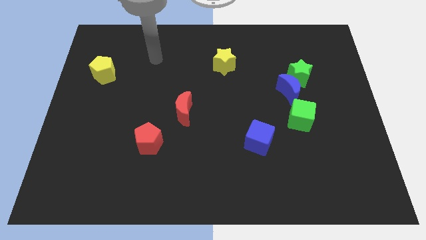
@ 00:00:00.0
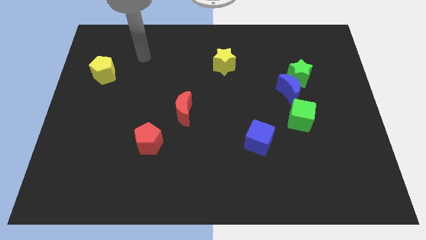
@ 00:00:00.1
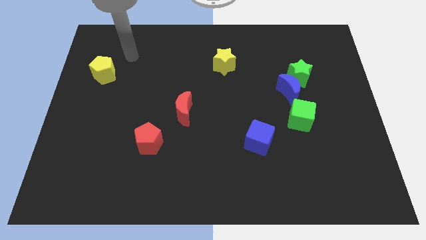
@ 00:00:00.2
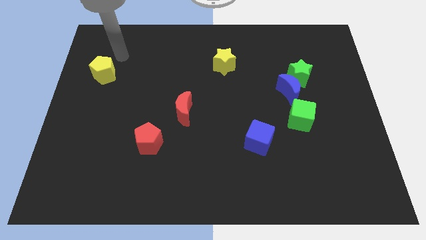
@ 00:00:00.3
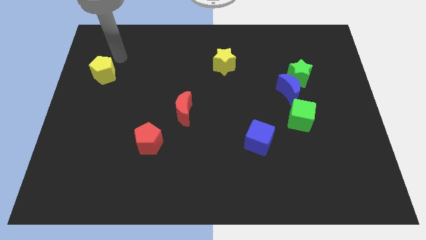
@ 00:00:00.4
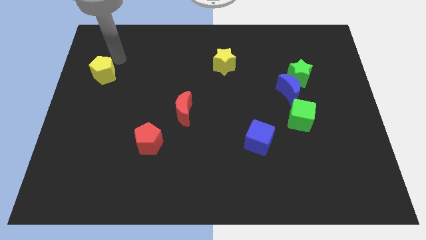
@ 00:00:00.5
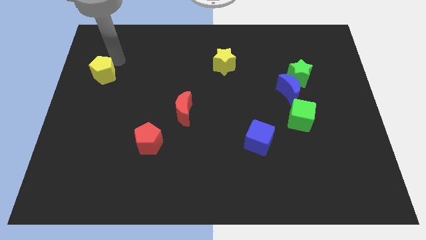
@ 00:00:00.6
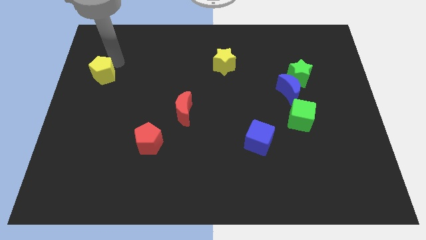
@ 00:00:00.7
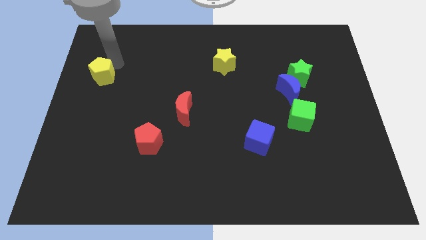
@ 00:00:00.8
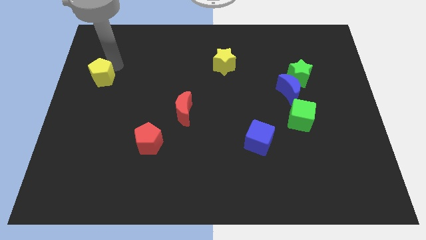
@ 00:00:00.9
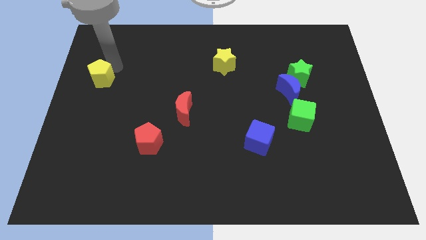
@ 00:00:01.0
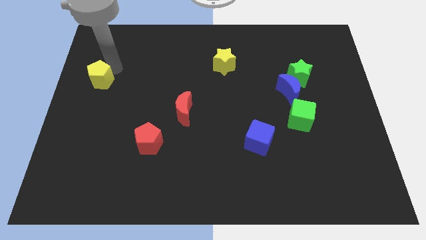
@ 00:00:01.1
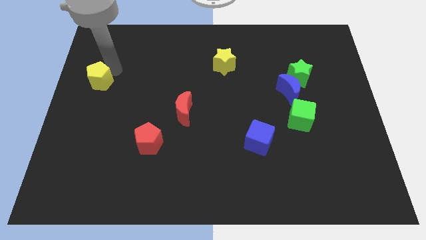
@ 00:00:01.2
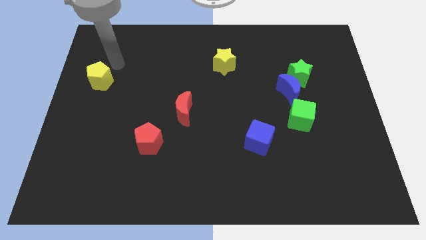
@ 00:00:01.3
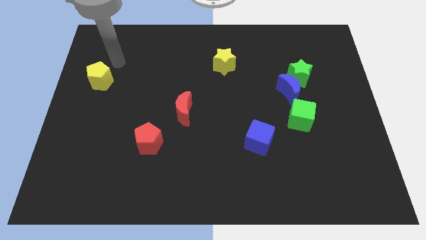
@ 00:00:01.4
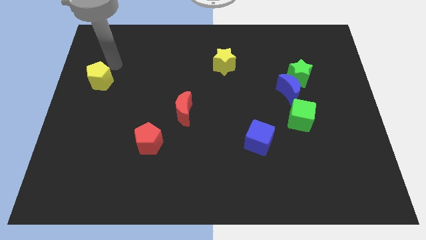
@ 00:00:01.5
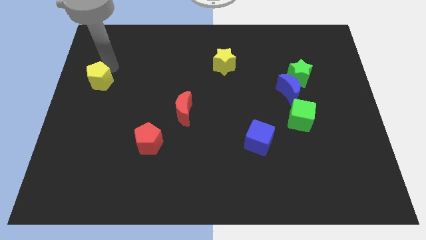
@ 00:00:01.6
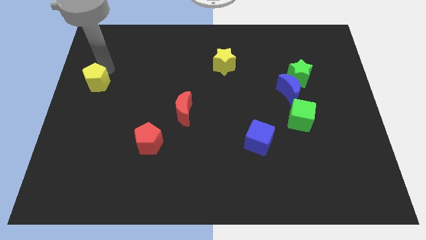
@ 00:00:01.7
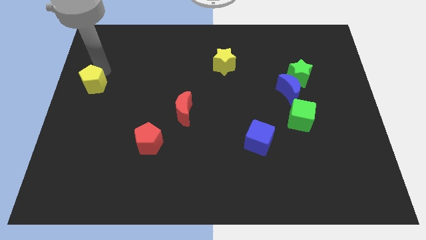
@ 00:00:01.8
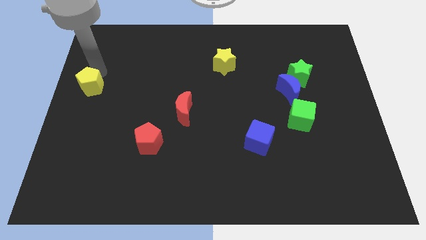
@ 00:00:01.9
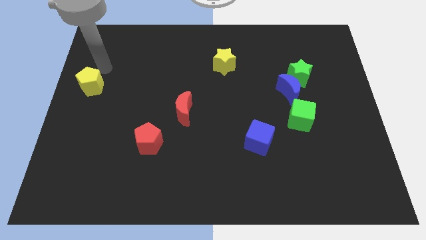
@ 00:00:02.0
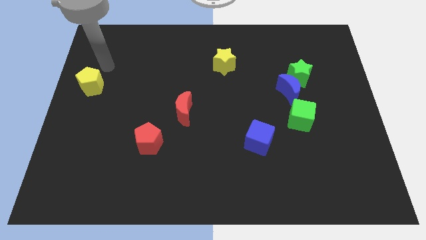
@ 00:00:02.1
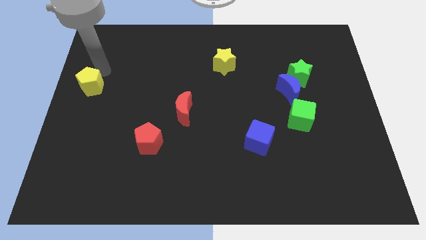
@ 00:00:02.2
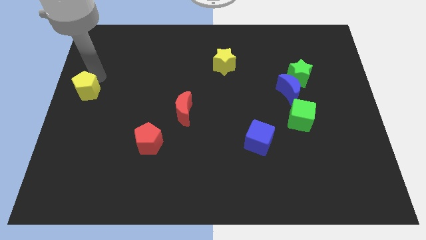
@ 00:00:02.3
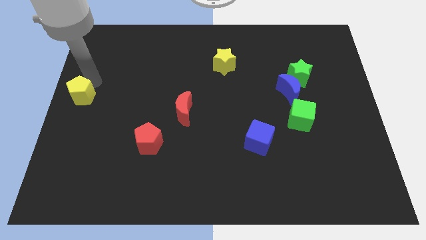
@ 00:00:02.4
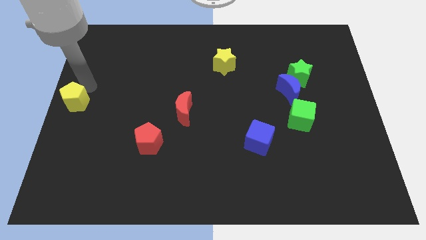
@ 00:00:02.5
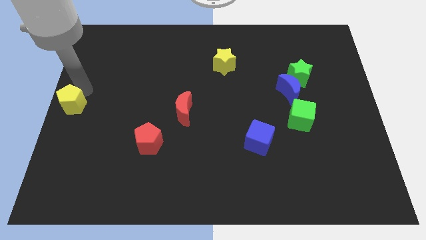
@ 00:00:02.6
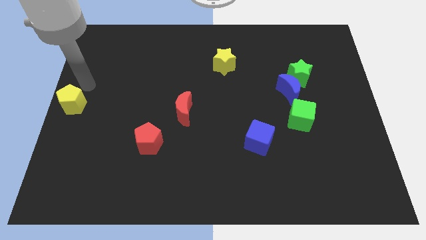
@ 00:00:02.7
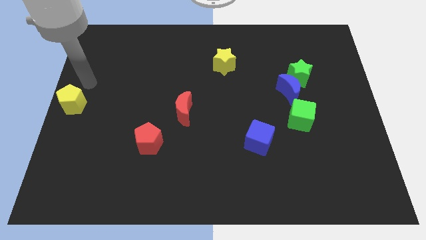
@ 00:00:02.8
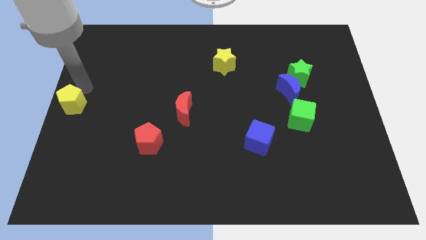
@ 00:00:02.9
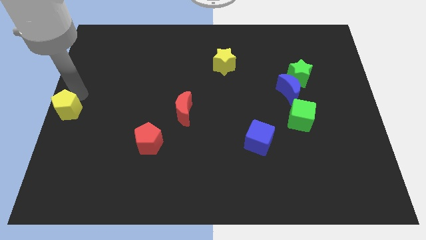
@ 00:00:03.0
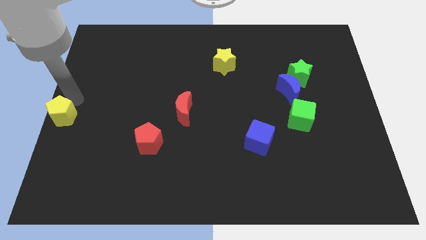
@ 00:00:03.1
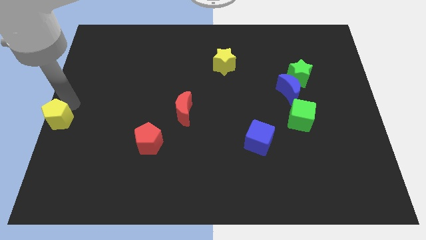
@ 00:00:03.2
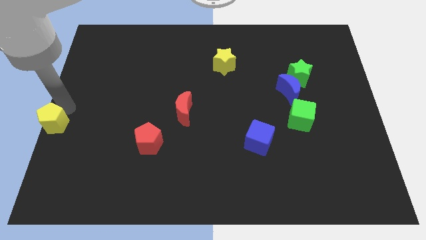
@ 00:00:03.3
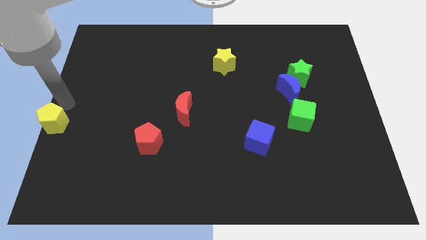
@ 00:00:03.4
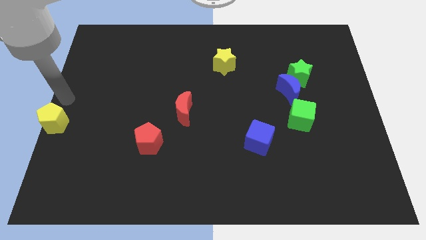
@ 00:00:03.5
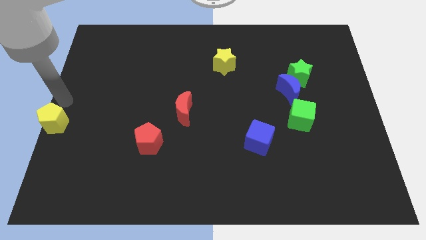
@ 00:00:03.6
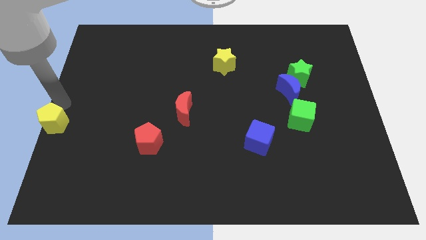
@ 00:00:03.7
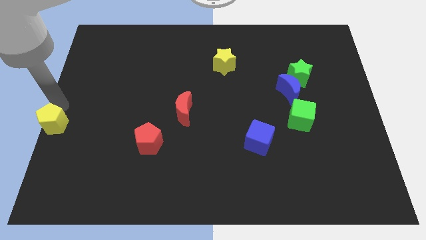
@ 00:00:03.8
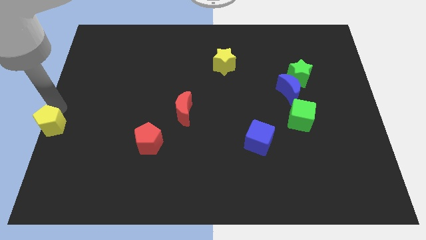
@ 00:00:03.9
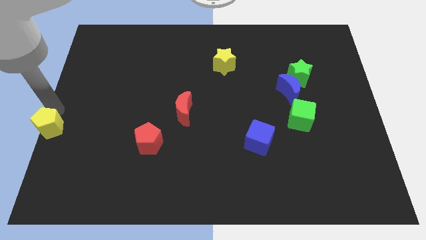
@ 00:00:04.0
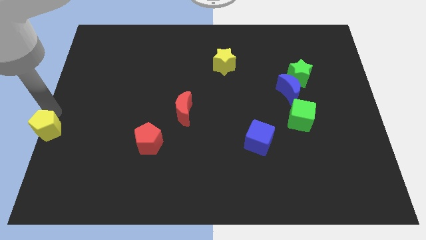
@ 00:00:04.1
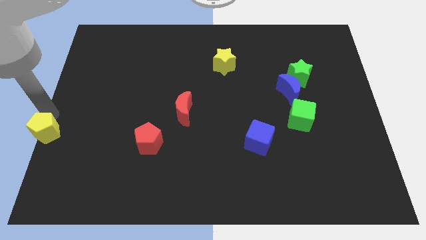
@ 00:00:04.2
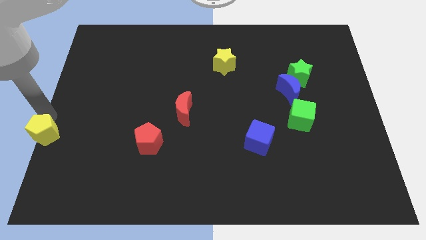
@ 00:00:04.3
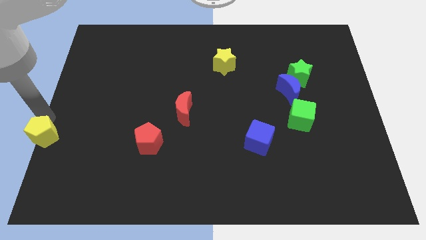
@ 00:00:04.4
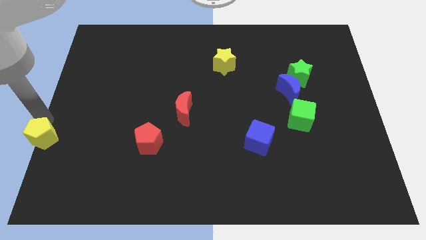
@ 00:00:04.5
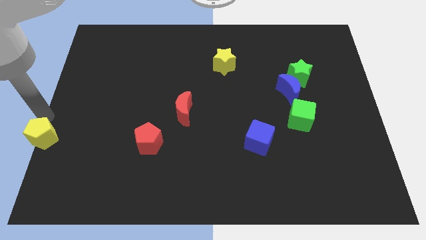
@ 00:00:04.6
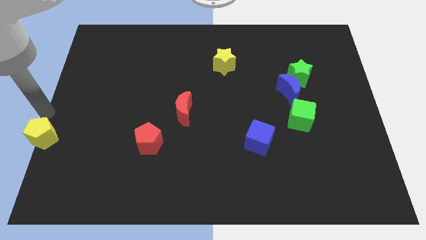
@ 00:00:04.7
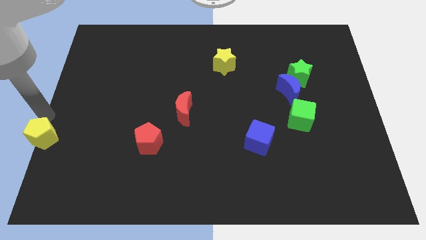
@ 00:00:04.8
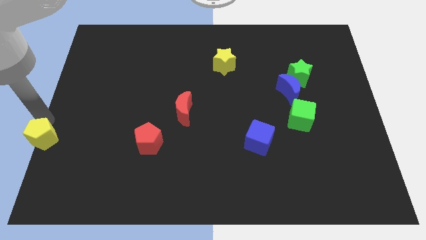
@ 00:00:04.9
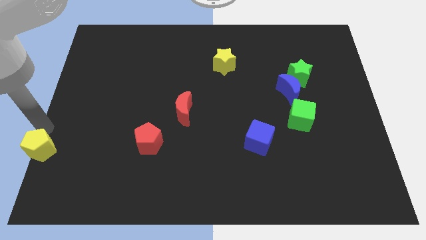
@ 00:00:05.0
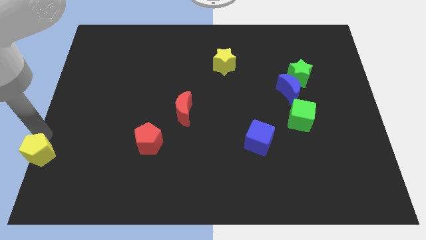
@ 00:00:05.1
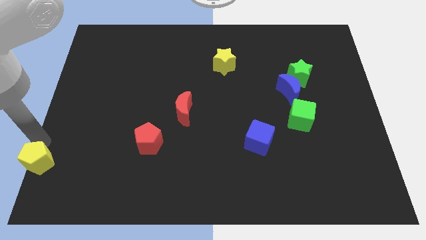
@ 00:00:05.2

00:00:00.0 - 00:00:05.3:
move the yellow pentagon to the bottom left of the board

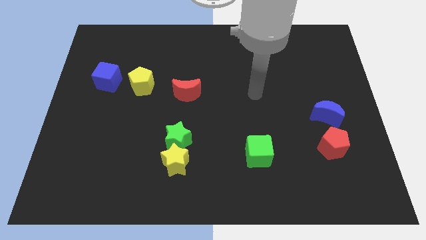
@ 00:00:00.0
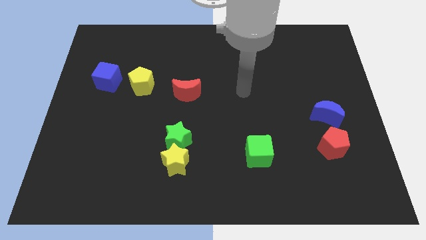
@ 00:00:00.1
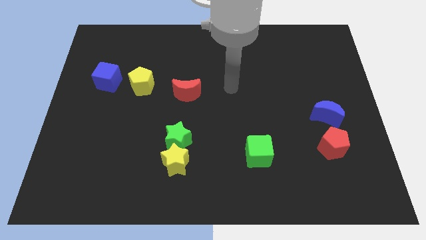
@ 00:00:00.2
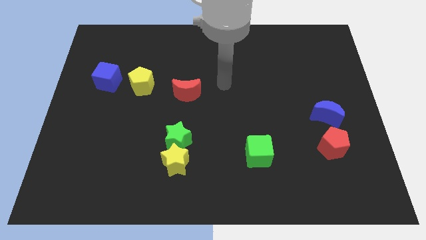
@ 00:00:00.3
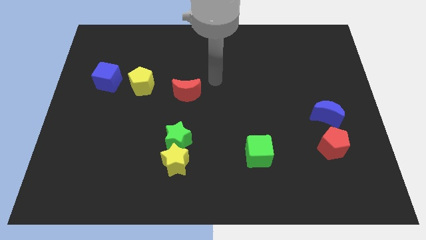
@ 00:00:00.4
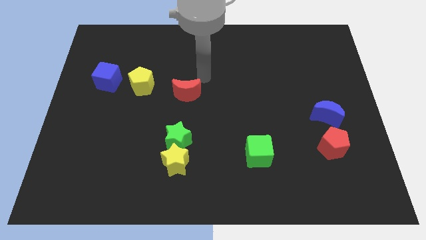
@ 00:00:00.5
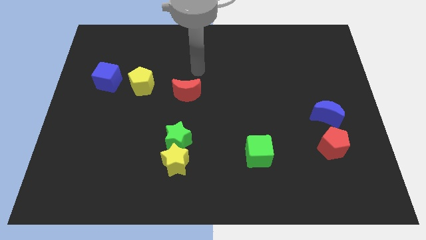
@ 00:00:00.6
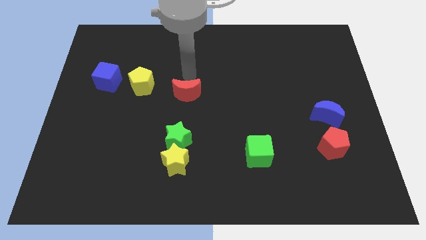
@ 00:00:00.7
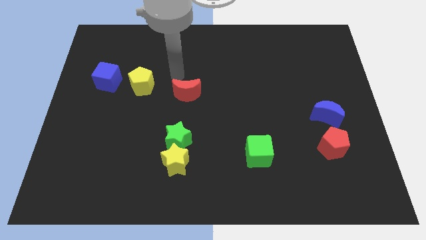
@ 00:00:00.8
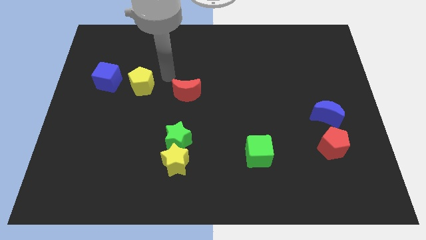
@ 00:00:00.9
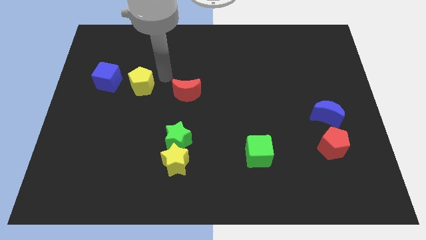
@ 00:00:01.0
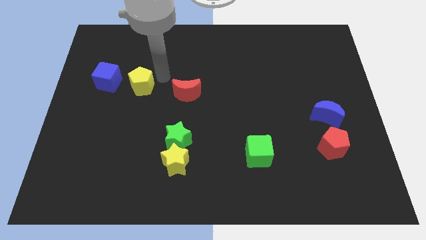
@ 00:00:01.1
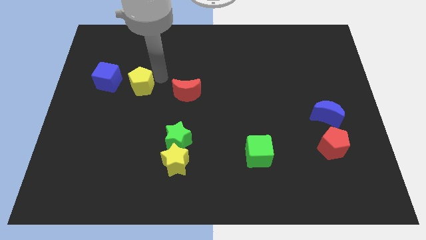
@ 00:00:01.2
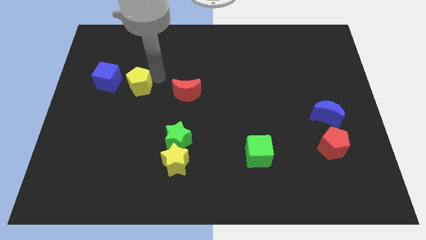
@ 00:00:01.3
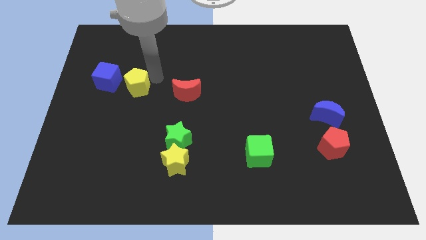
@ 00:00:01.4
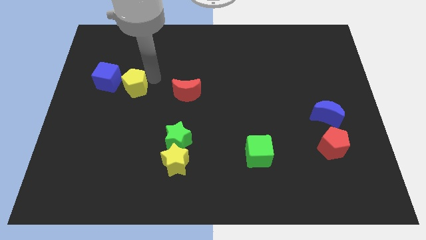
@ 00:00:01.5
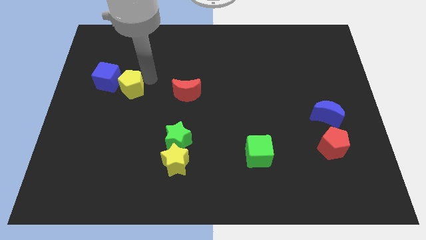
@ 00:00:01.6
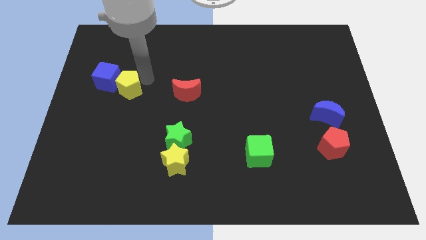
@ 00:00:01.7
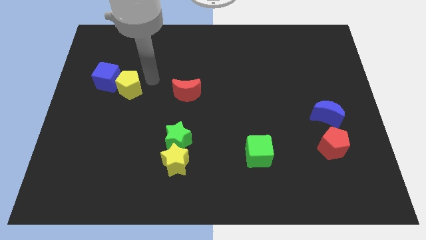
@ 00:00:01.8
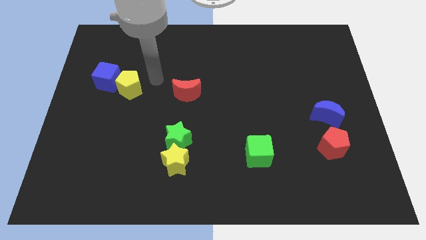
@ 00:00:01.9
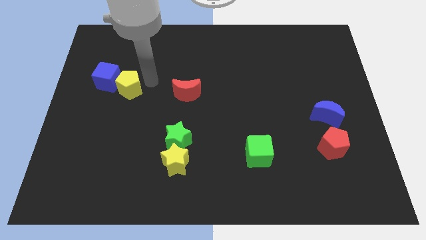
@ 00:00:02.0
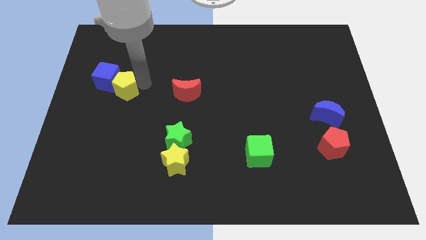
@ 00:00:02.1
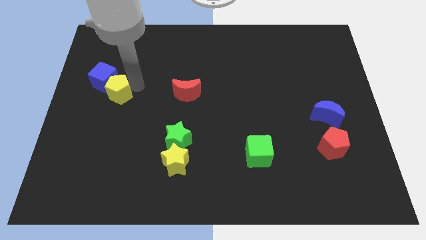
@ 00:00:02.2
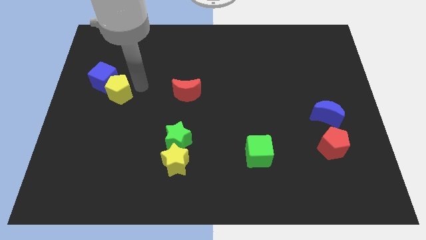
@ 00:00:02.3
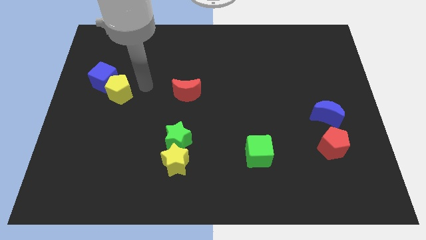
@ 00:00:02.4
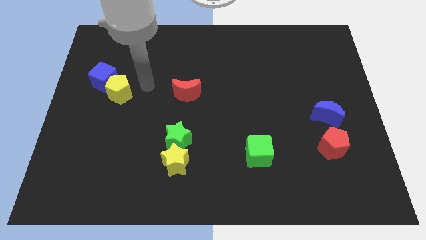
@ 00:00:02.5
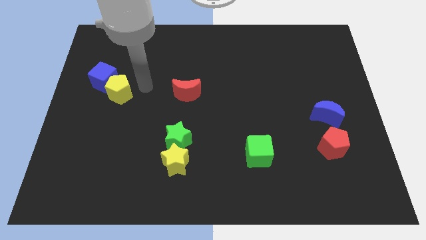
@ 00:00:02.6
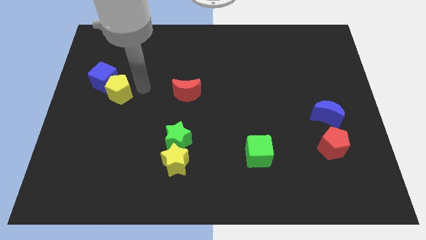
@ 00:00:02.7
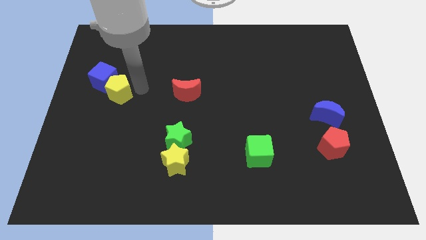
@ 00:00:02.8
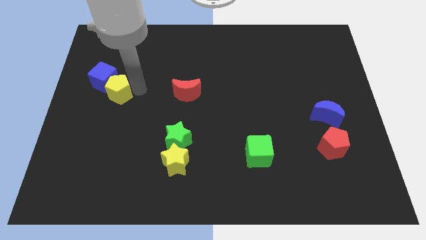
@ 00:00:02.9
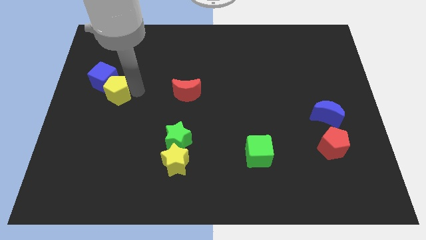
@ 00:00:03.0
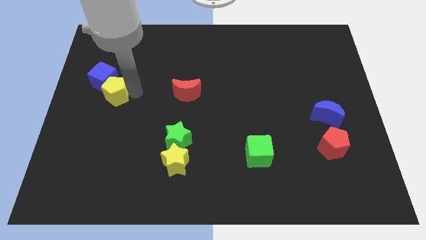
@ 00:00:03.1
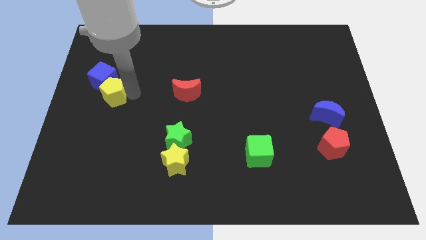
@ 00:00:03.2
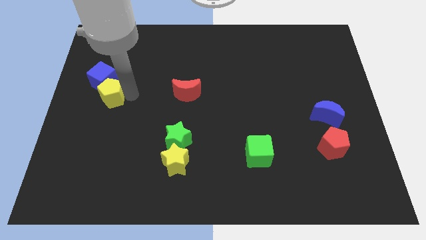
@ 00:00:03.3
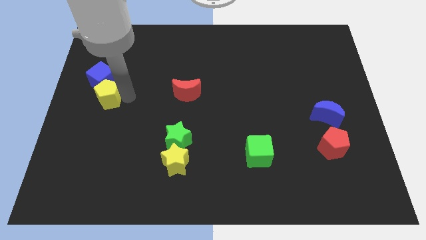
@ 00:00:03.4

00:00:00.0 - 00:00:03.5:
move the yellow pentagon to the left side
